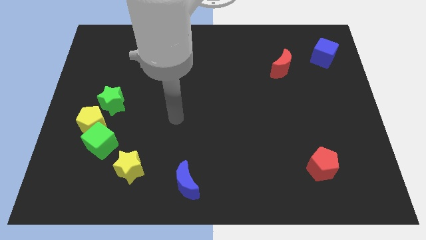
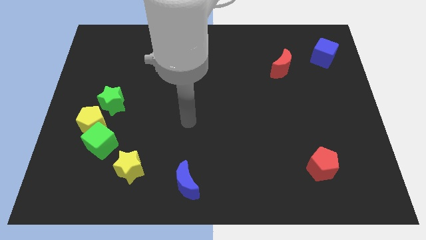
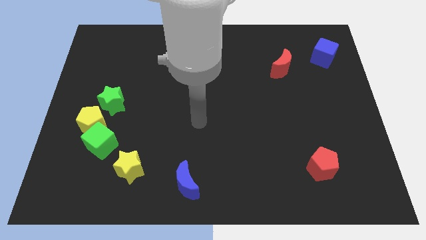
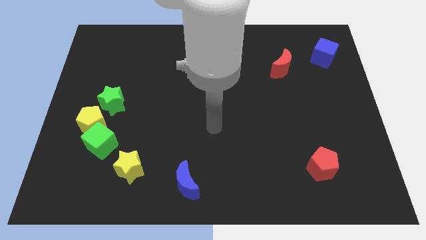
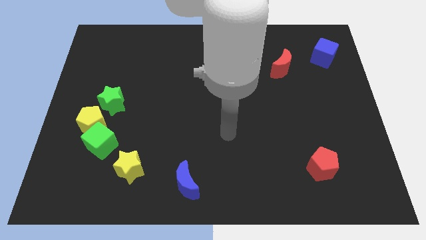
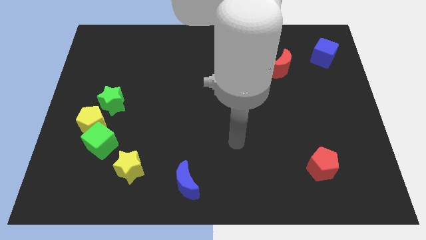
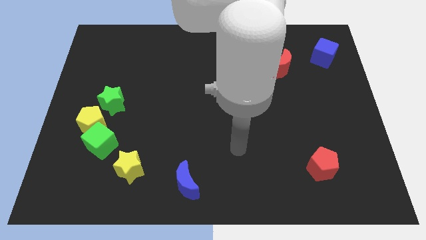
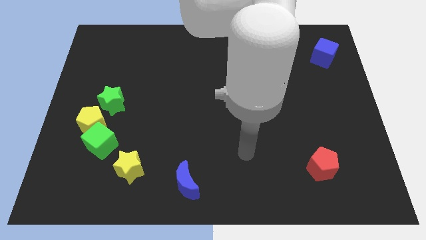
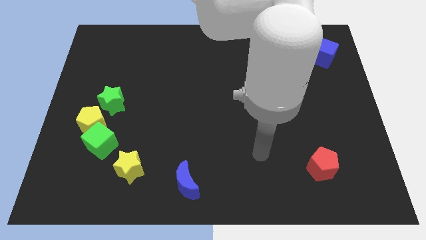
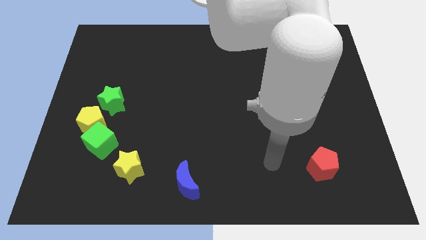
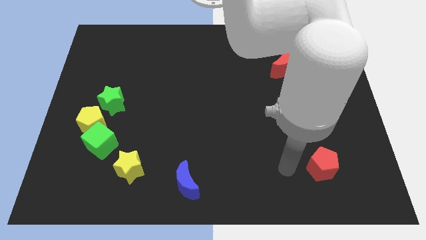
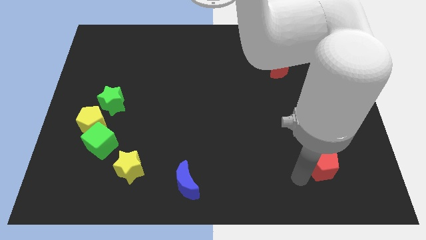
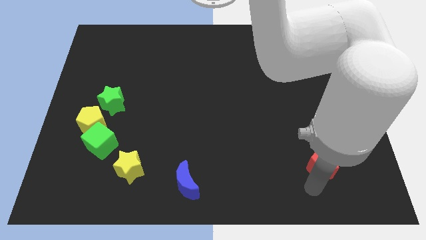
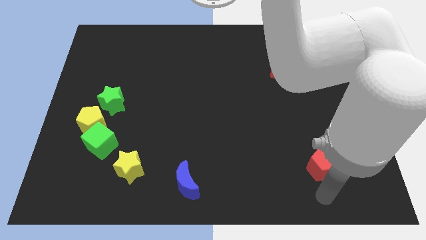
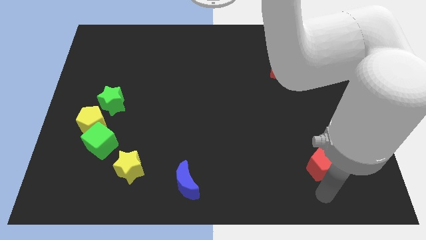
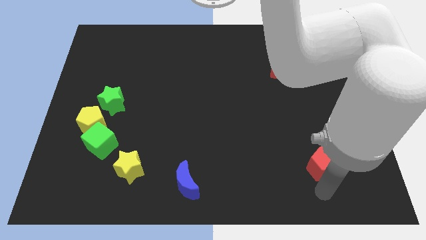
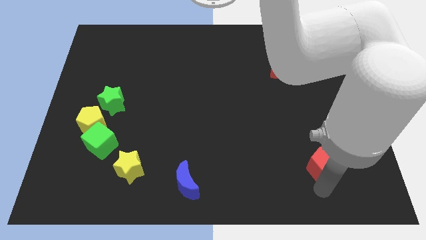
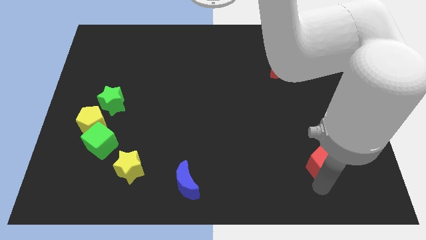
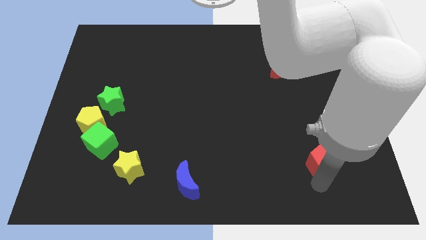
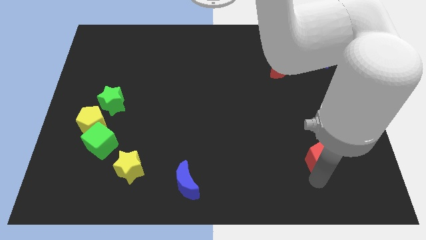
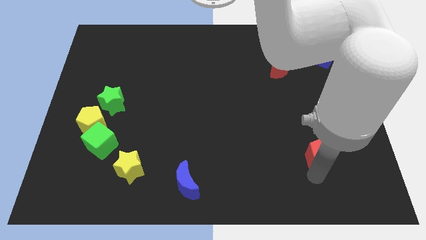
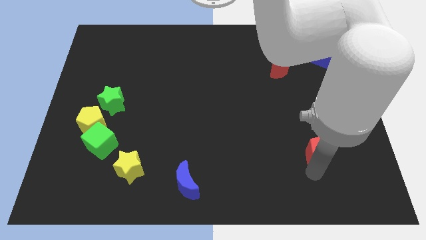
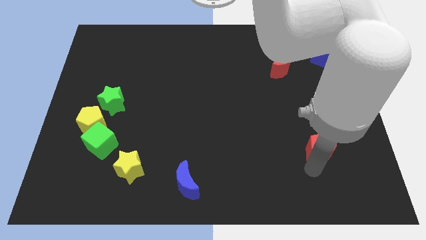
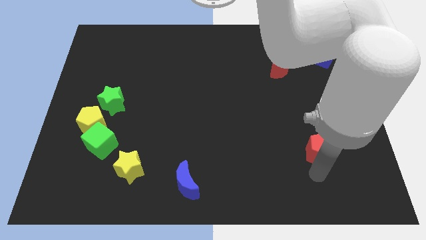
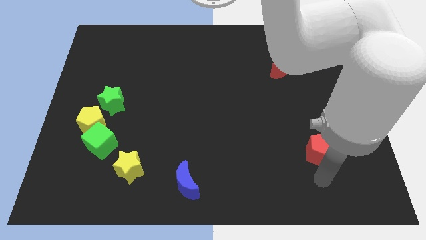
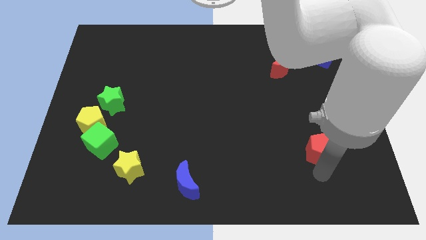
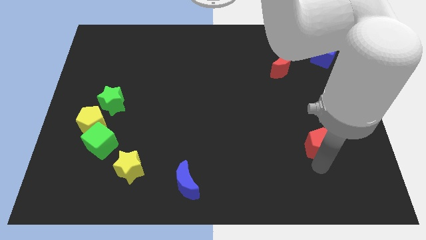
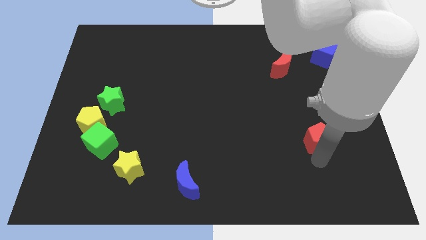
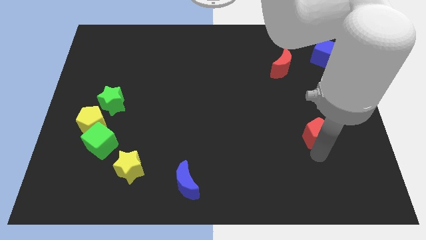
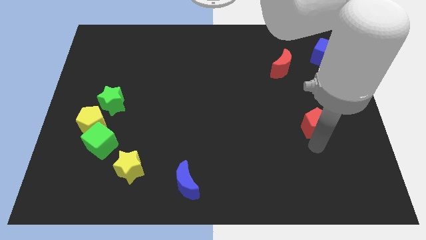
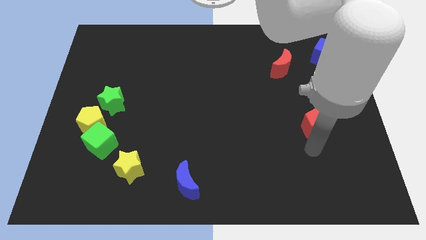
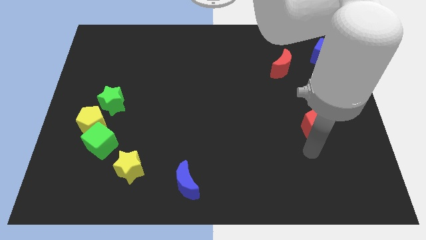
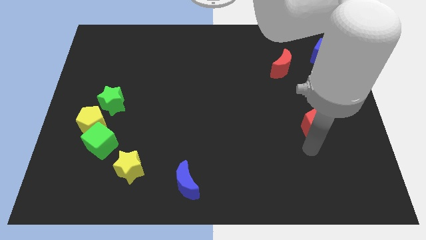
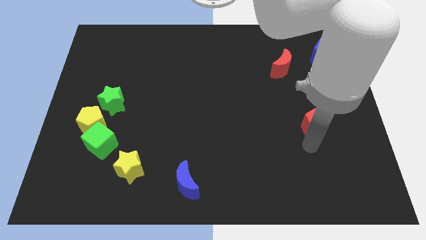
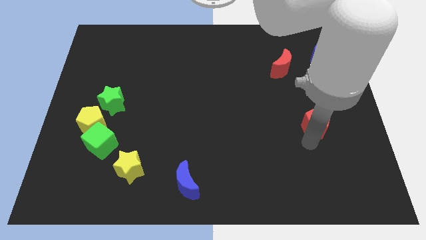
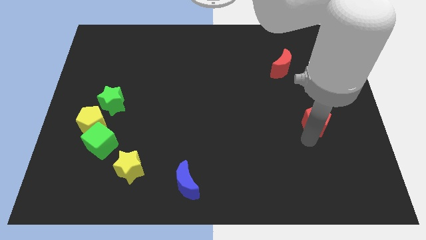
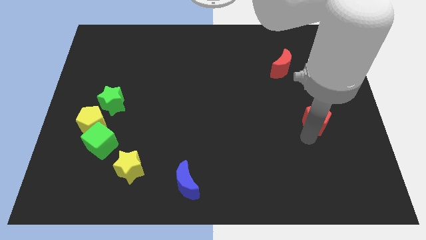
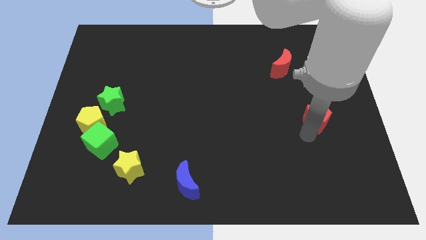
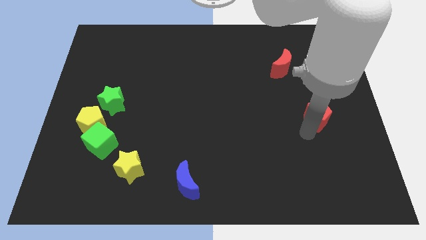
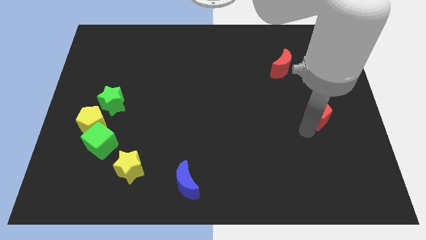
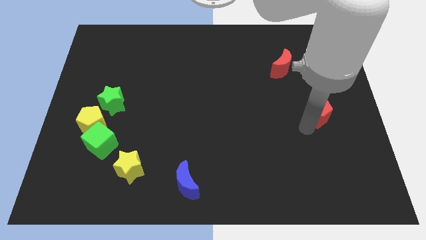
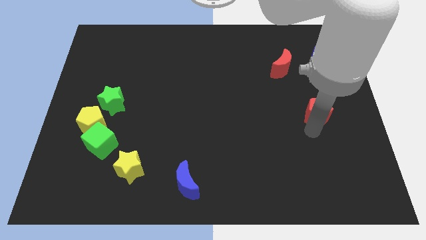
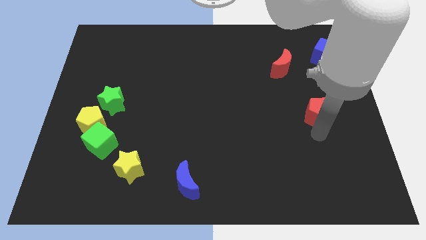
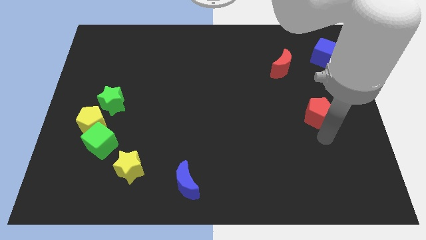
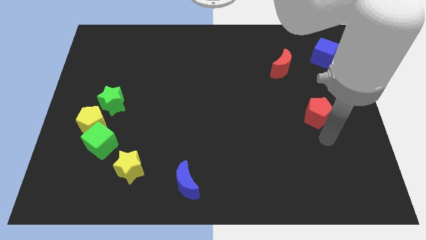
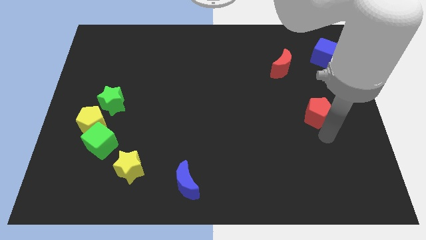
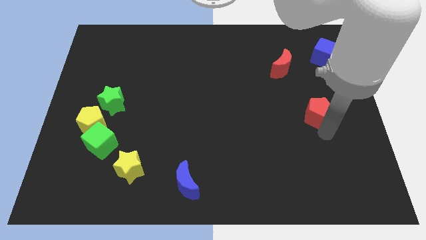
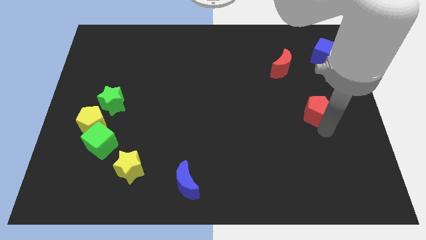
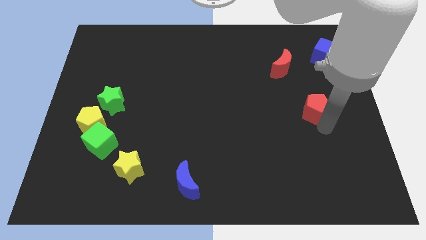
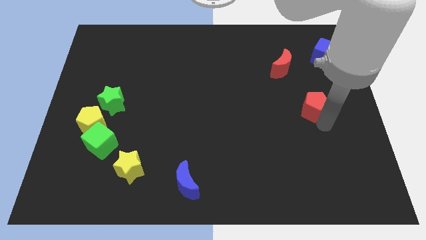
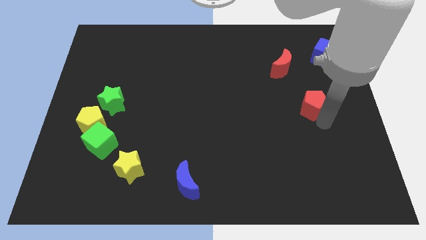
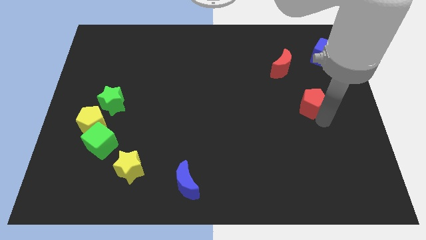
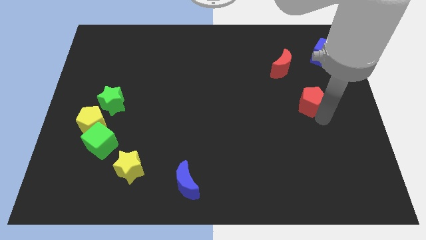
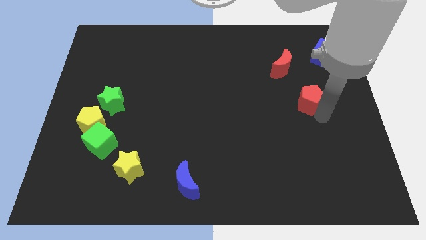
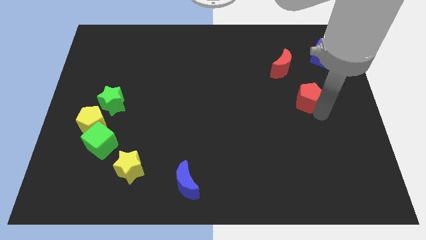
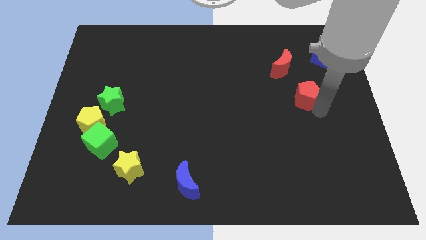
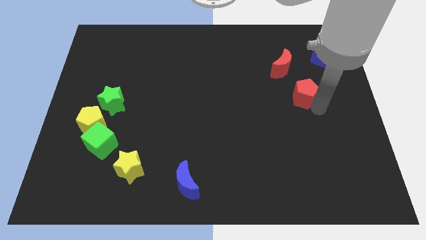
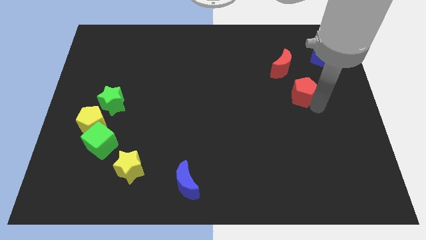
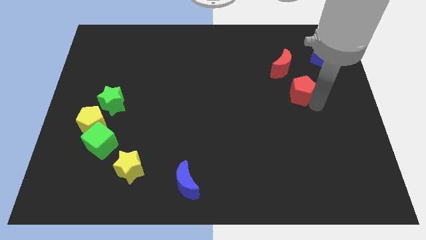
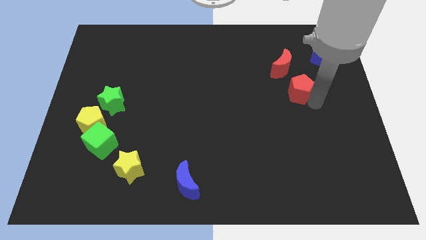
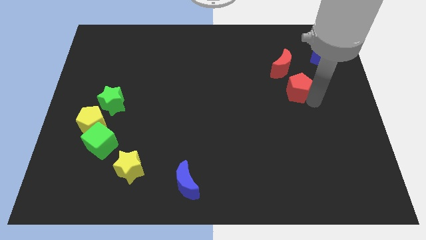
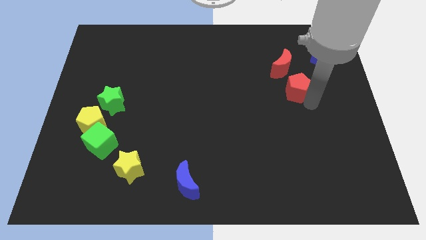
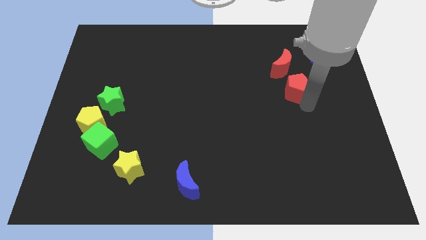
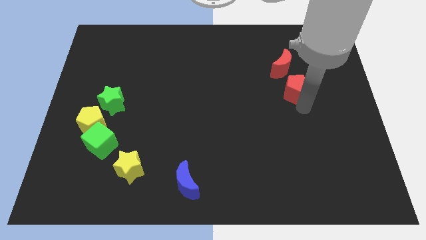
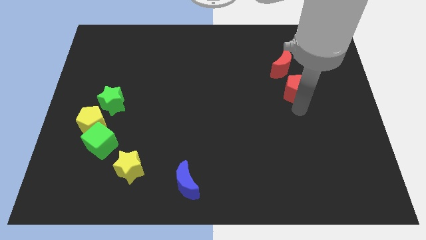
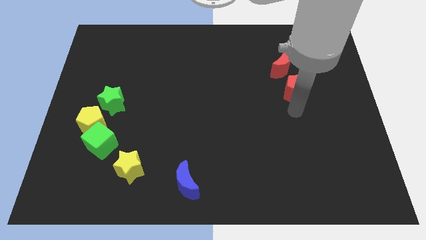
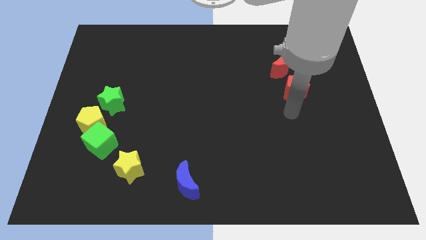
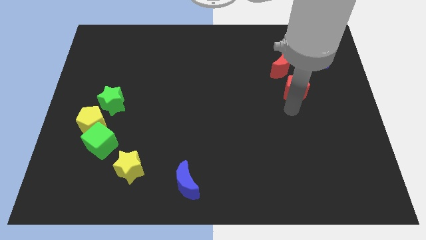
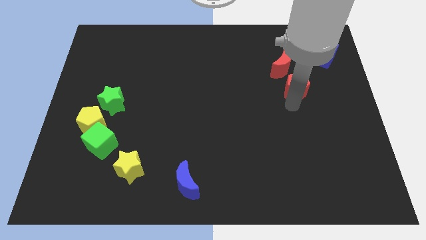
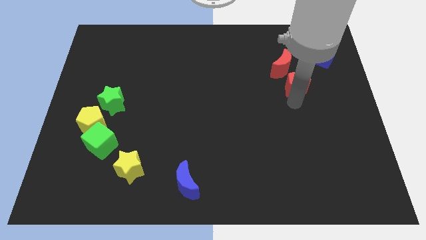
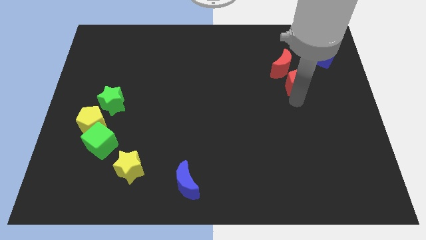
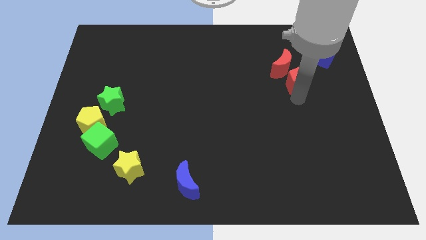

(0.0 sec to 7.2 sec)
move the red pentagon to the red moon
